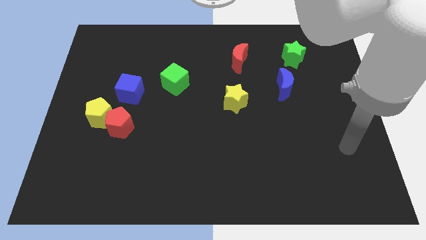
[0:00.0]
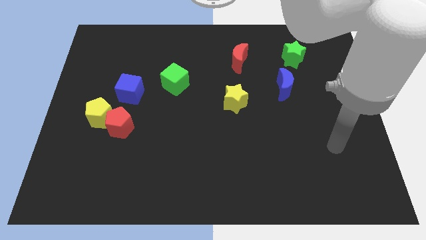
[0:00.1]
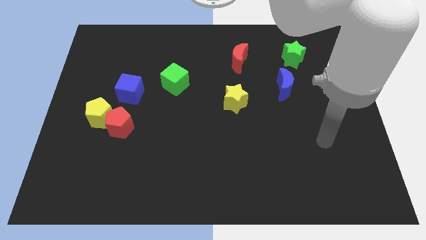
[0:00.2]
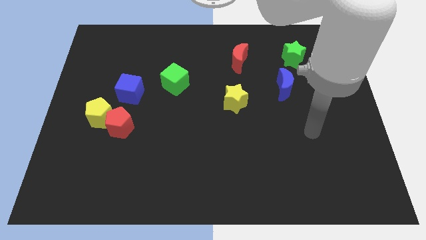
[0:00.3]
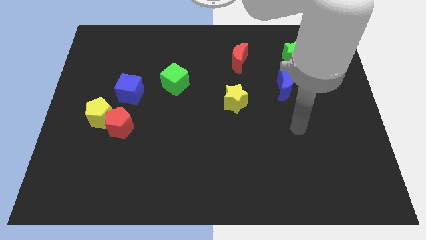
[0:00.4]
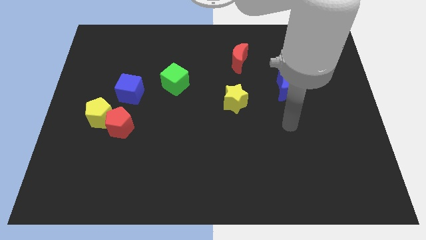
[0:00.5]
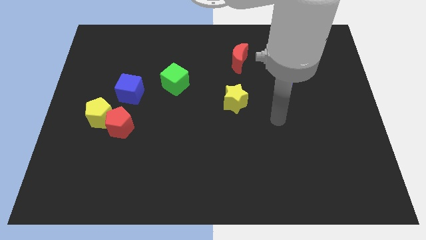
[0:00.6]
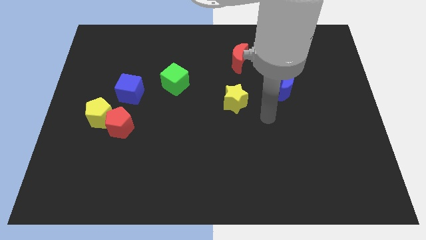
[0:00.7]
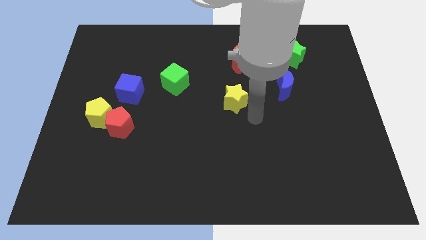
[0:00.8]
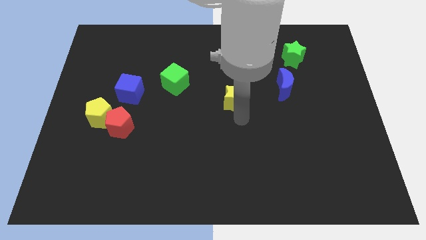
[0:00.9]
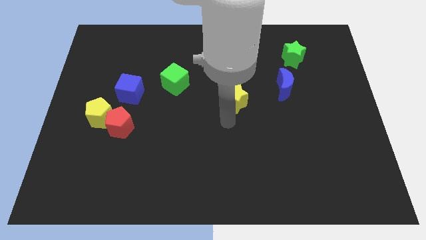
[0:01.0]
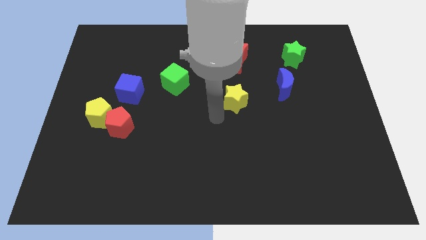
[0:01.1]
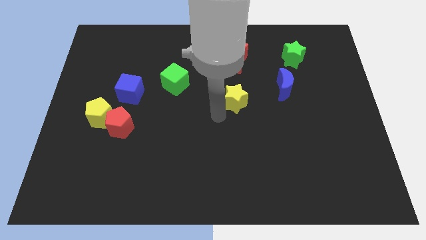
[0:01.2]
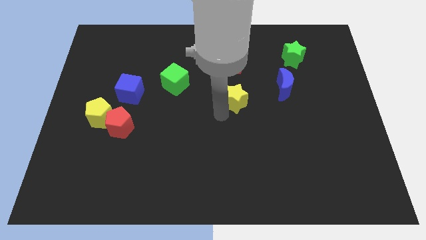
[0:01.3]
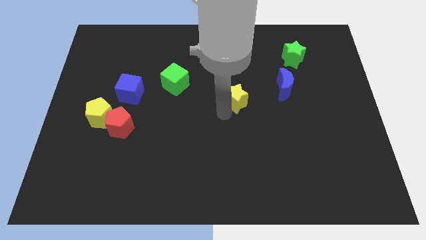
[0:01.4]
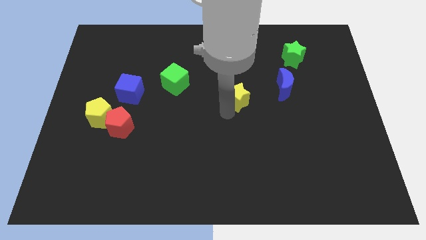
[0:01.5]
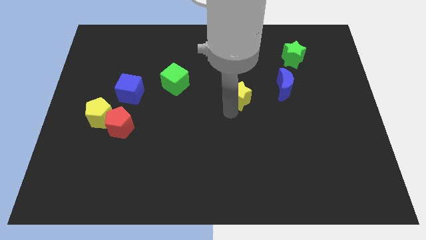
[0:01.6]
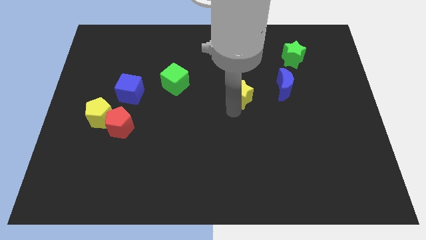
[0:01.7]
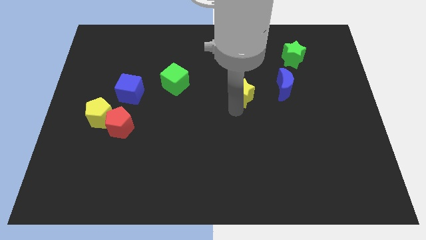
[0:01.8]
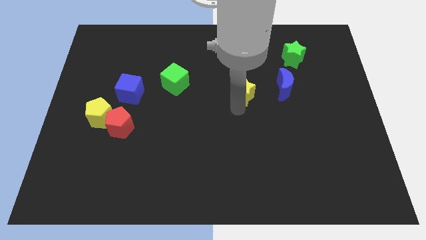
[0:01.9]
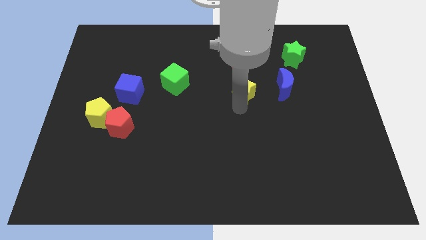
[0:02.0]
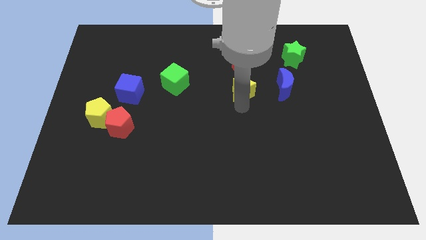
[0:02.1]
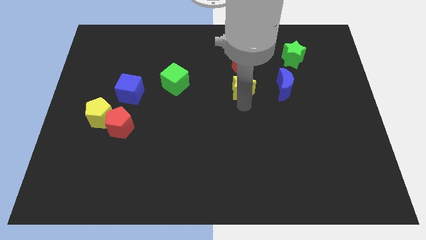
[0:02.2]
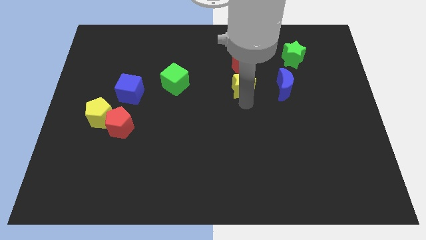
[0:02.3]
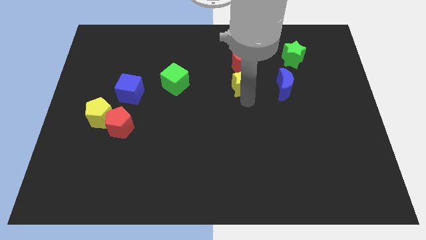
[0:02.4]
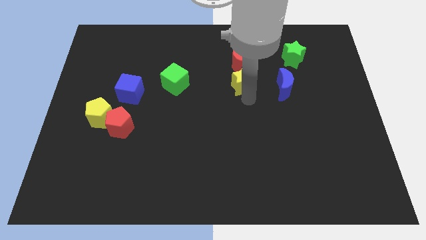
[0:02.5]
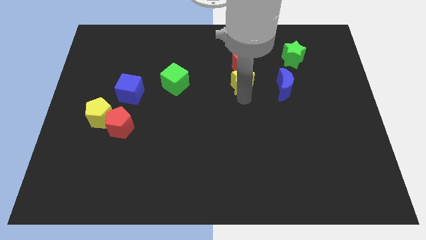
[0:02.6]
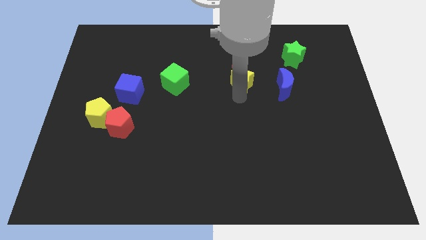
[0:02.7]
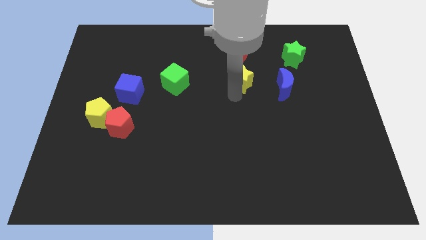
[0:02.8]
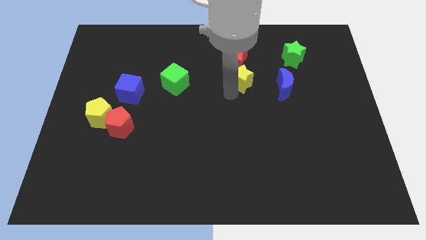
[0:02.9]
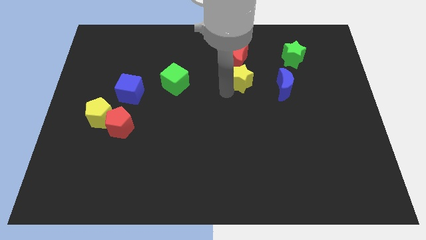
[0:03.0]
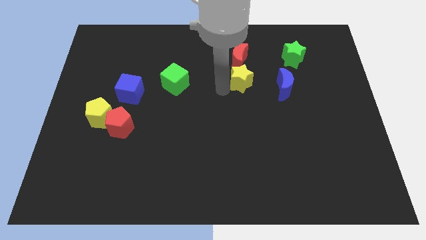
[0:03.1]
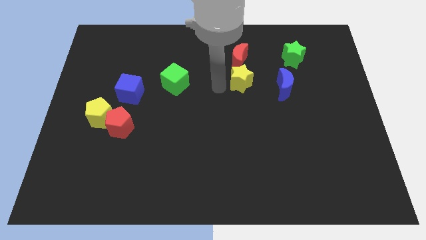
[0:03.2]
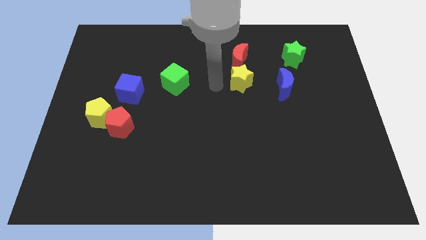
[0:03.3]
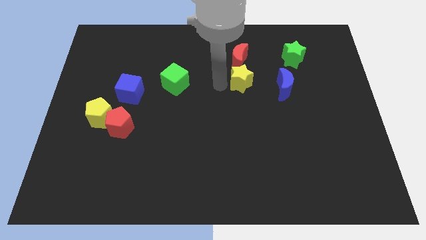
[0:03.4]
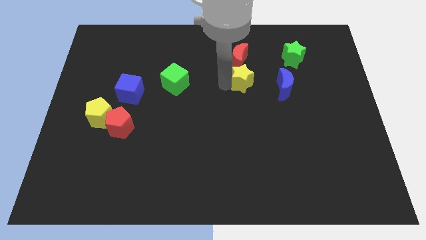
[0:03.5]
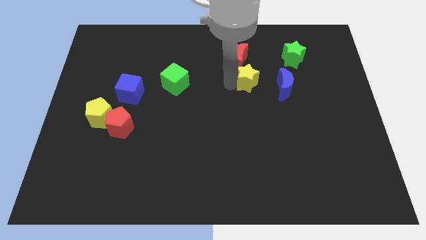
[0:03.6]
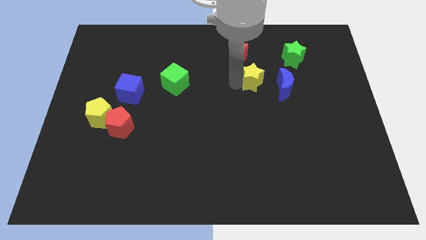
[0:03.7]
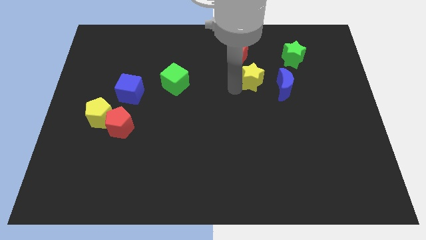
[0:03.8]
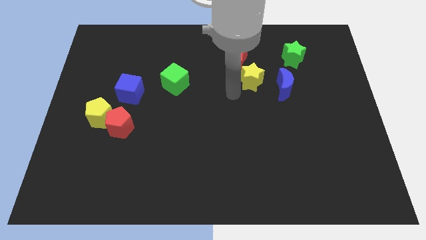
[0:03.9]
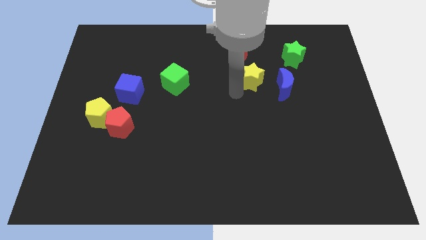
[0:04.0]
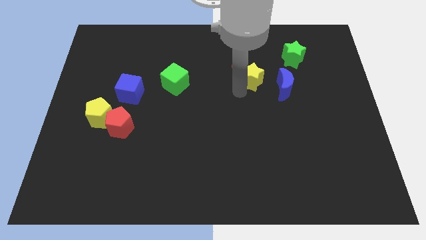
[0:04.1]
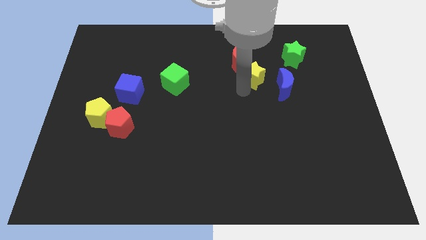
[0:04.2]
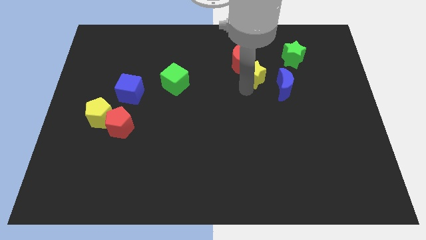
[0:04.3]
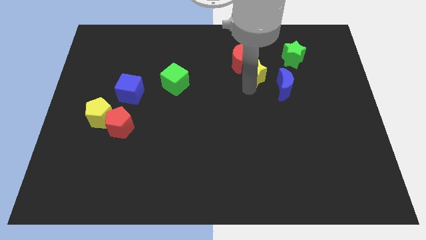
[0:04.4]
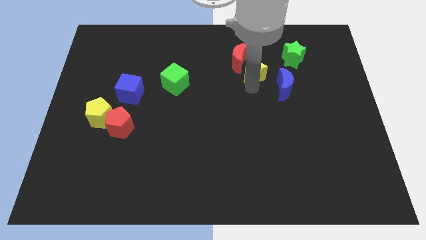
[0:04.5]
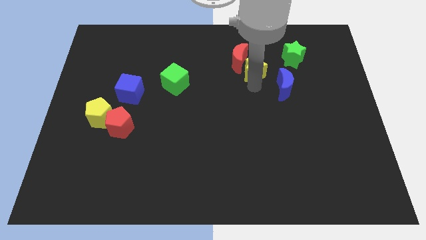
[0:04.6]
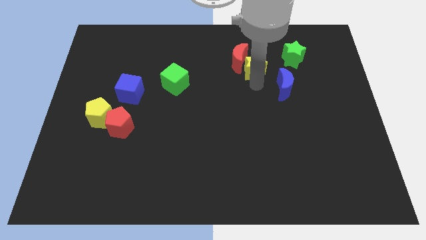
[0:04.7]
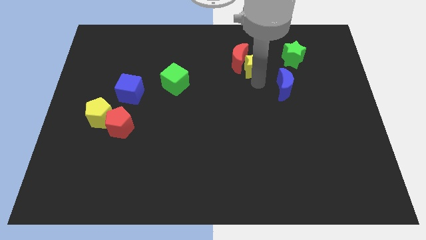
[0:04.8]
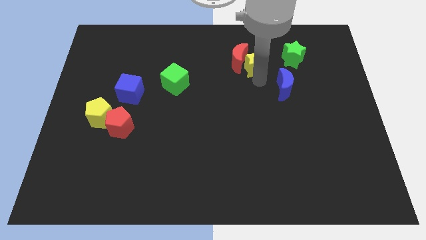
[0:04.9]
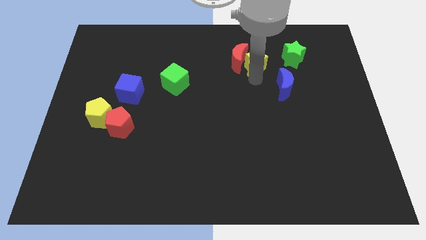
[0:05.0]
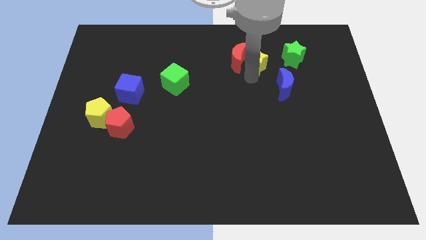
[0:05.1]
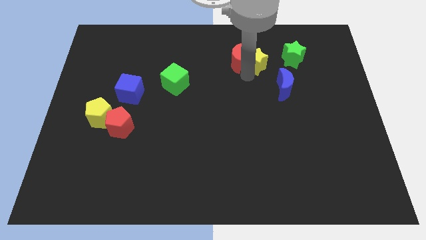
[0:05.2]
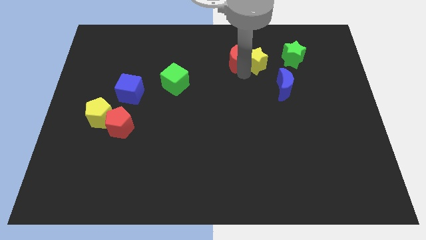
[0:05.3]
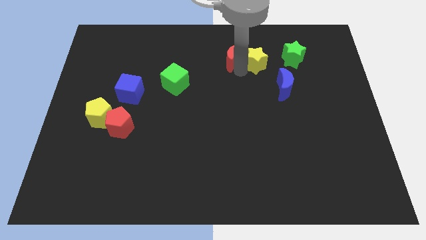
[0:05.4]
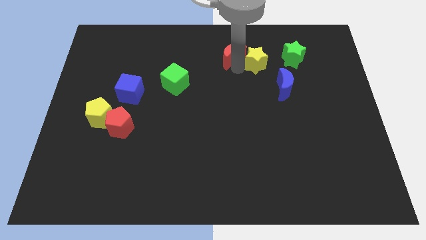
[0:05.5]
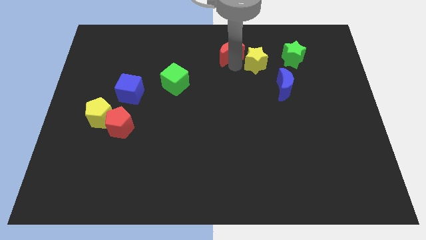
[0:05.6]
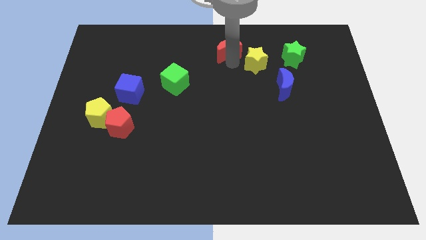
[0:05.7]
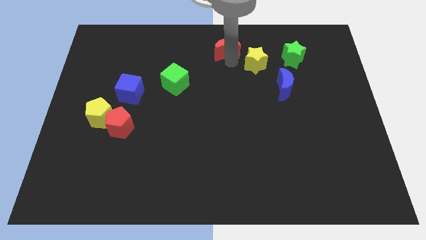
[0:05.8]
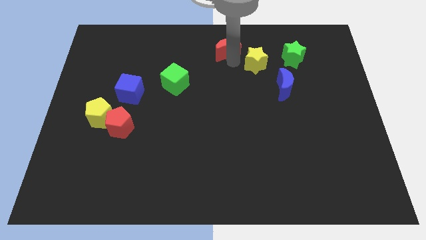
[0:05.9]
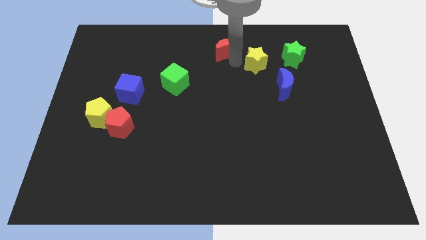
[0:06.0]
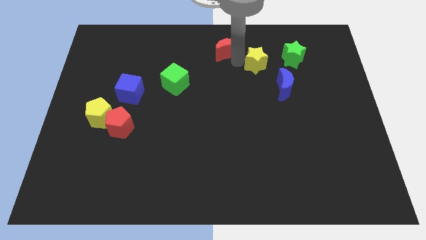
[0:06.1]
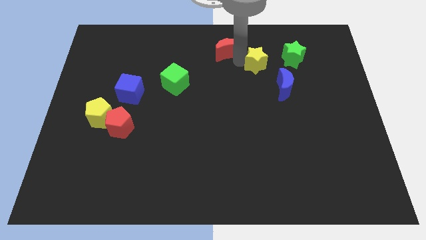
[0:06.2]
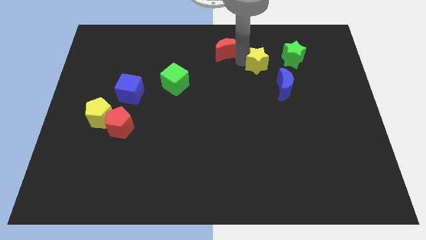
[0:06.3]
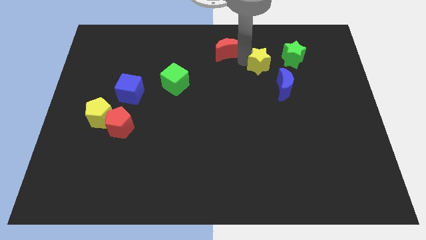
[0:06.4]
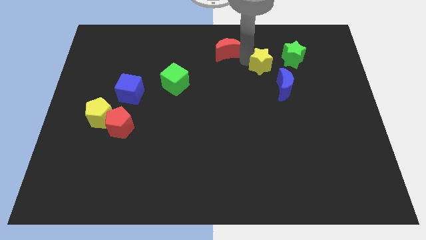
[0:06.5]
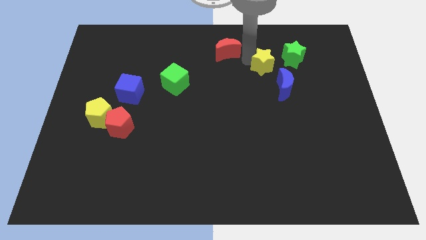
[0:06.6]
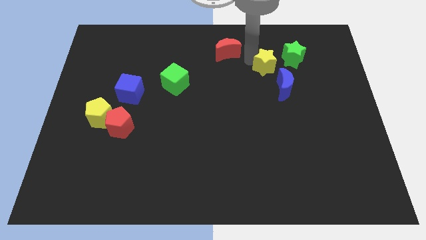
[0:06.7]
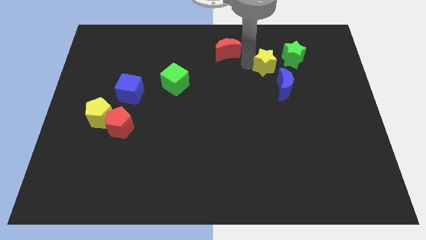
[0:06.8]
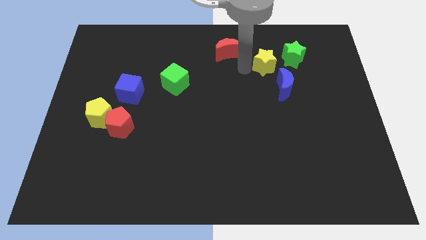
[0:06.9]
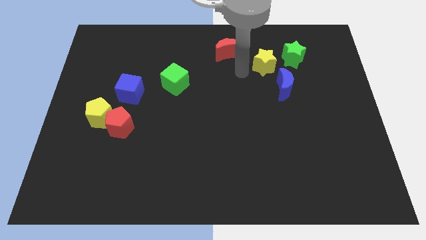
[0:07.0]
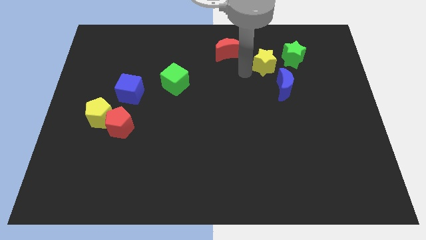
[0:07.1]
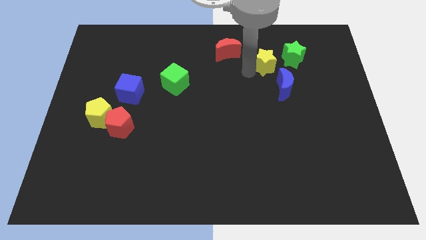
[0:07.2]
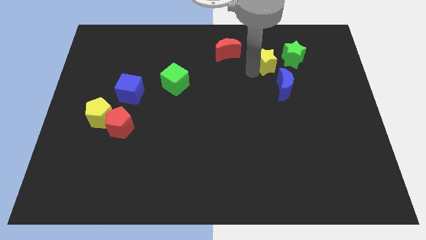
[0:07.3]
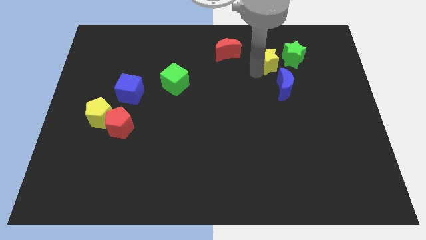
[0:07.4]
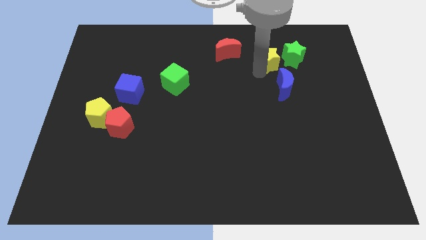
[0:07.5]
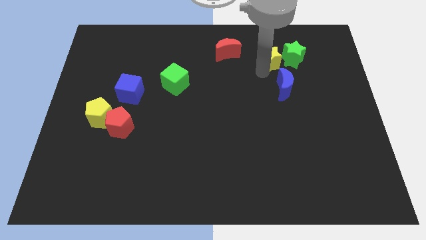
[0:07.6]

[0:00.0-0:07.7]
push the yellow star close to the green star
